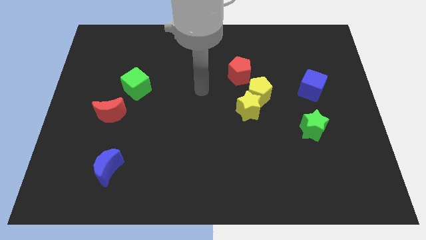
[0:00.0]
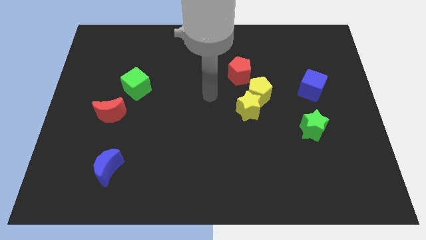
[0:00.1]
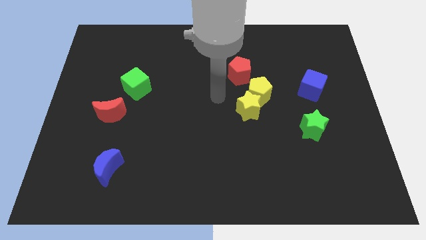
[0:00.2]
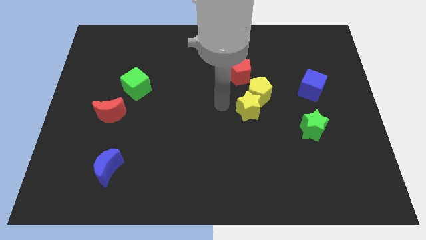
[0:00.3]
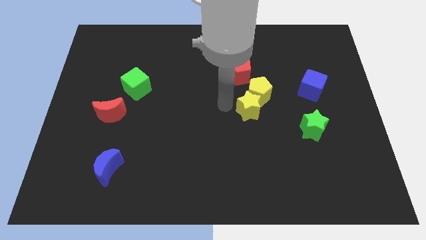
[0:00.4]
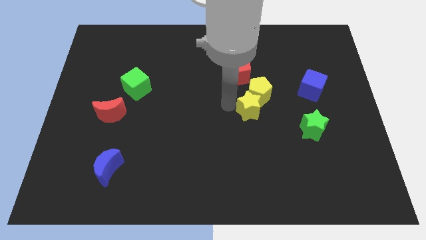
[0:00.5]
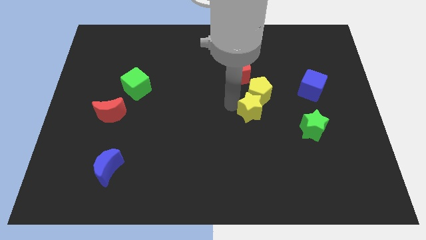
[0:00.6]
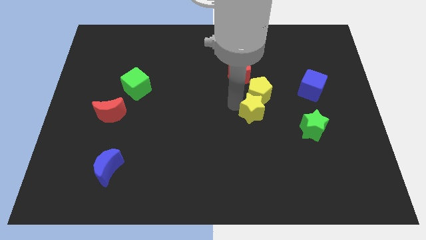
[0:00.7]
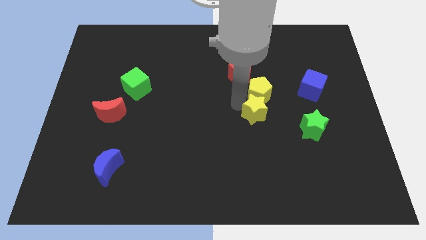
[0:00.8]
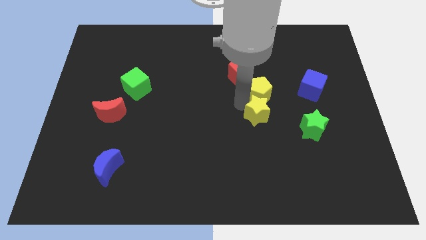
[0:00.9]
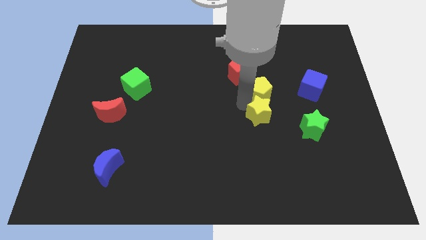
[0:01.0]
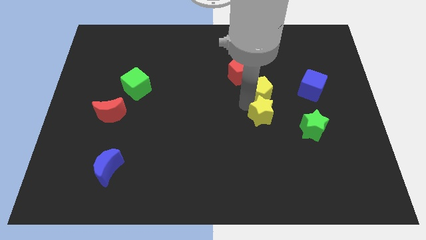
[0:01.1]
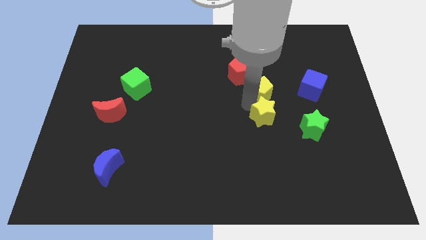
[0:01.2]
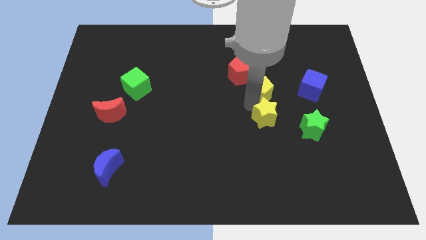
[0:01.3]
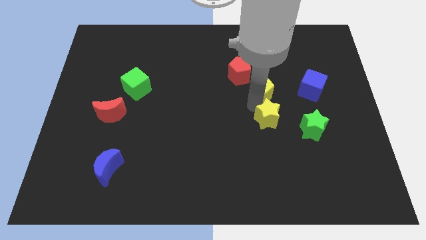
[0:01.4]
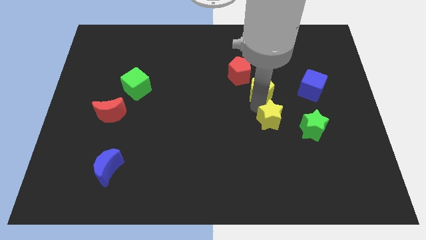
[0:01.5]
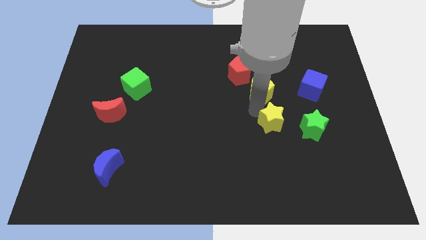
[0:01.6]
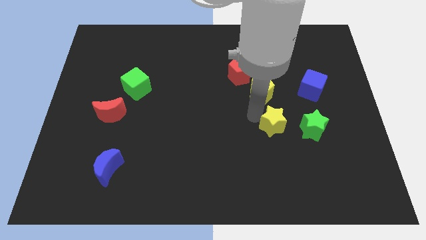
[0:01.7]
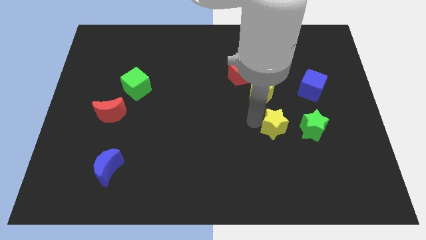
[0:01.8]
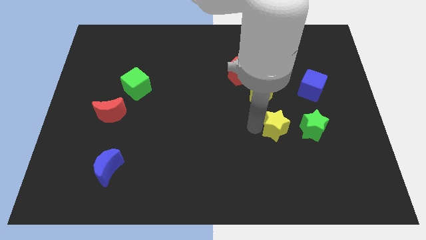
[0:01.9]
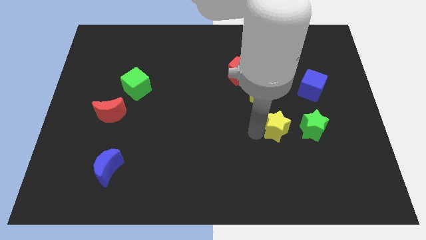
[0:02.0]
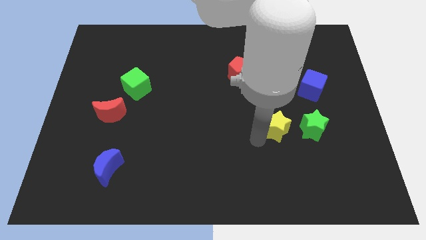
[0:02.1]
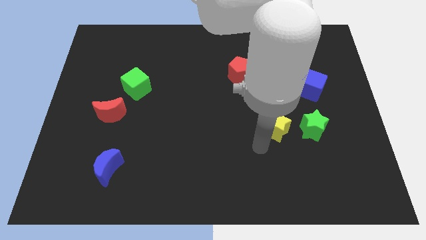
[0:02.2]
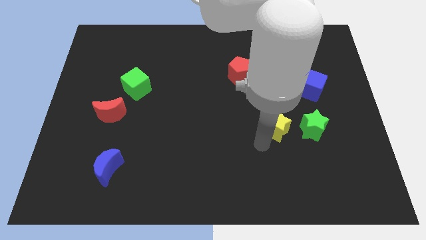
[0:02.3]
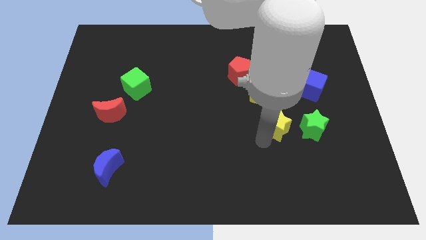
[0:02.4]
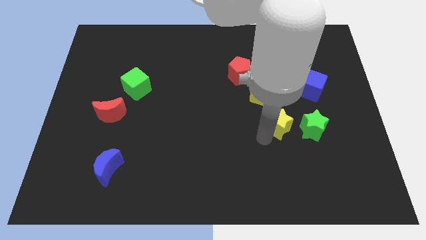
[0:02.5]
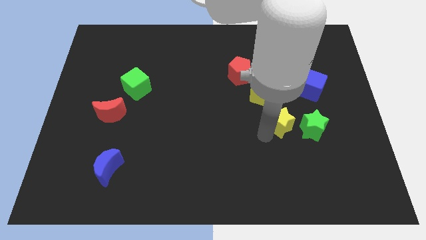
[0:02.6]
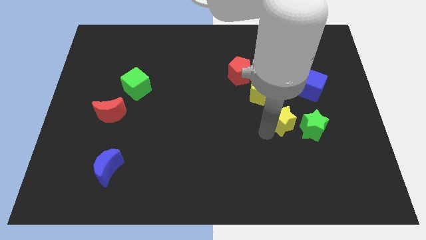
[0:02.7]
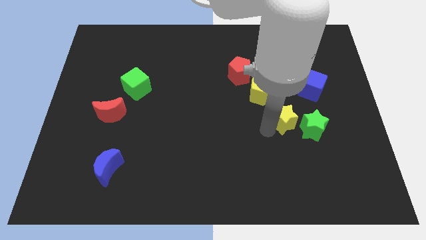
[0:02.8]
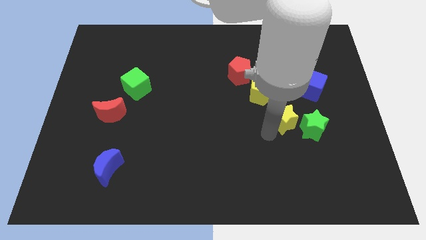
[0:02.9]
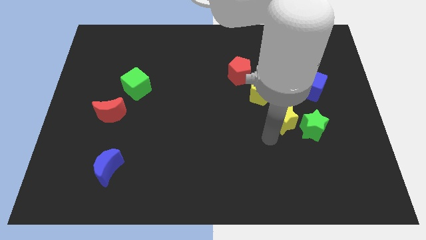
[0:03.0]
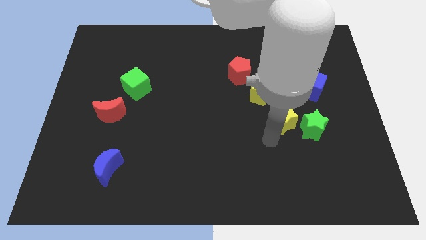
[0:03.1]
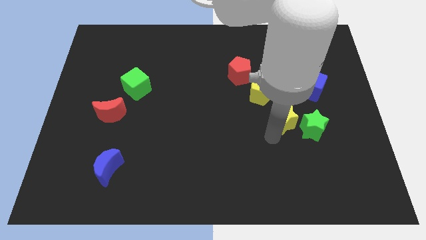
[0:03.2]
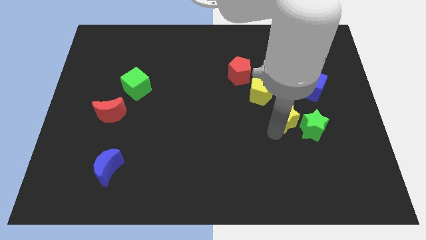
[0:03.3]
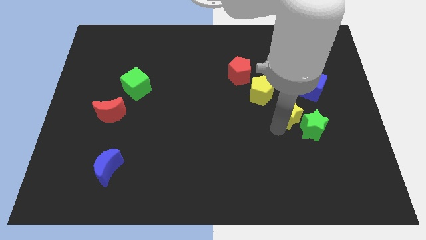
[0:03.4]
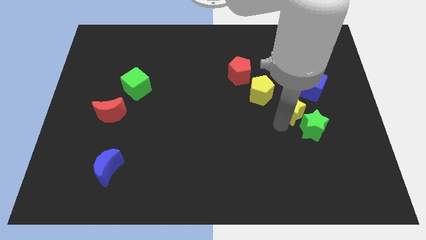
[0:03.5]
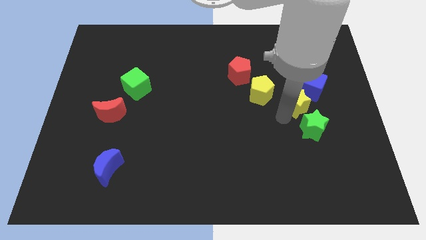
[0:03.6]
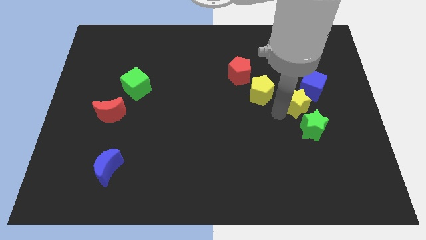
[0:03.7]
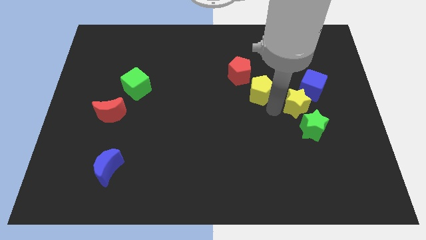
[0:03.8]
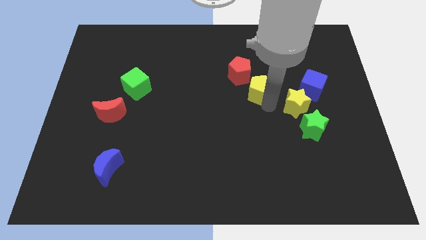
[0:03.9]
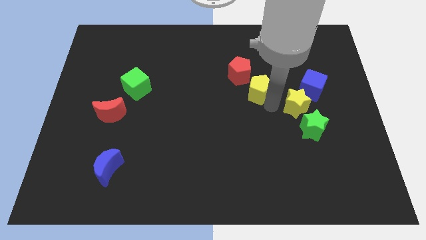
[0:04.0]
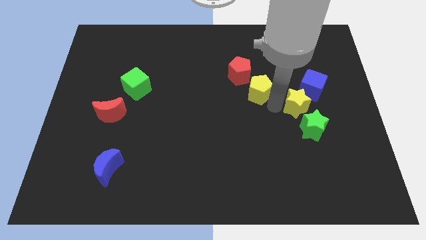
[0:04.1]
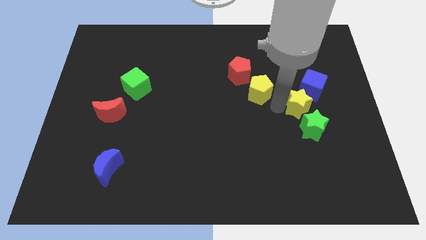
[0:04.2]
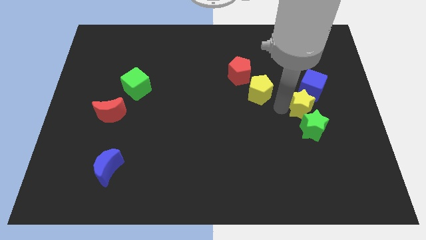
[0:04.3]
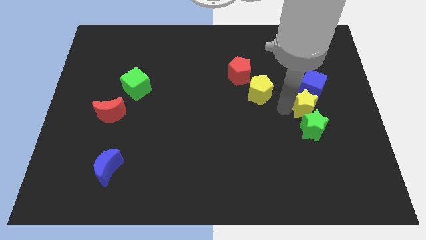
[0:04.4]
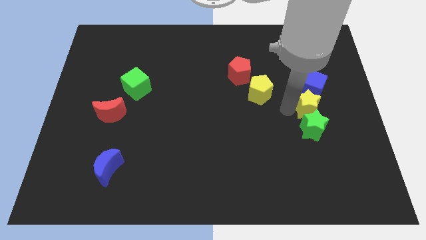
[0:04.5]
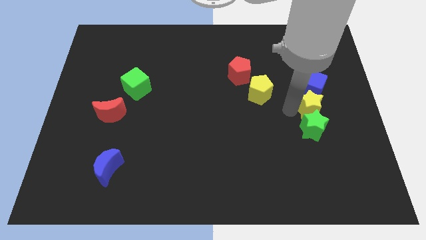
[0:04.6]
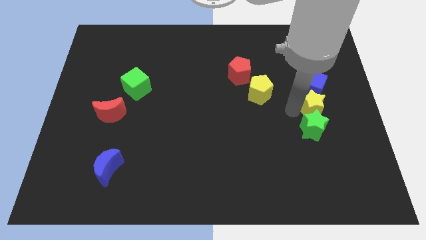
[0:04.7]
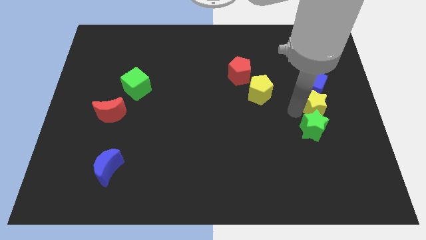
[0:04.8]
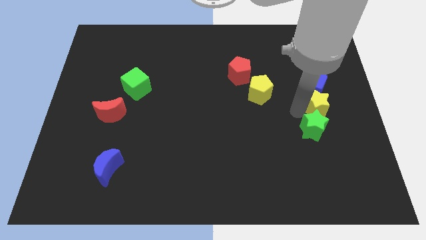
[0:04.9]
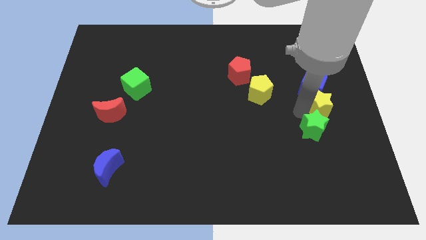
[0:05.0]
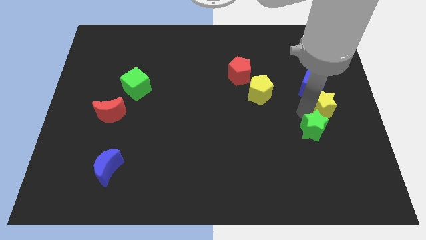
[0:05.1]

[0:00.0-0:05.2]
move the yellow star to the center right

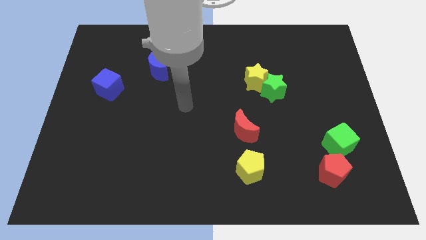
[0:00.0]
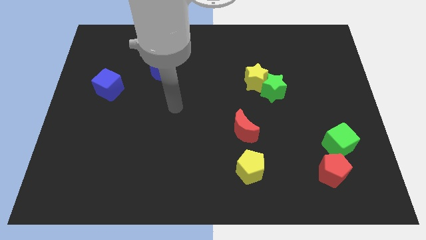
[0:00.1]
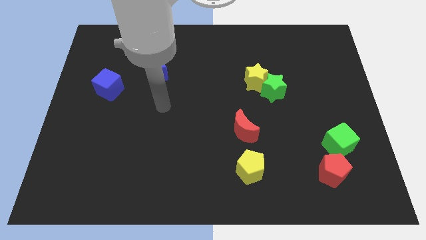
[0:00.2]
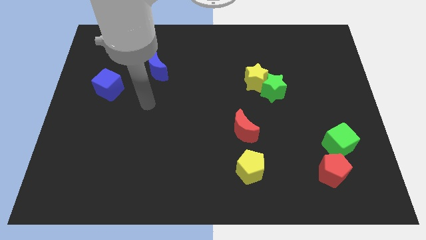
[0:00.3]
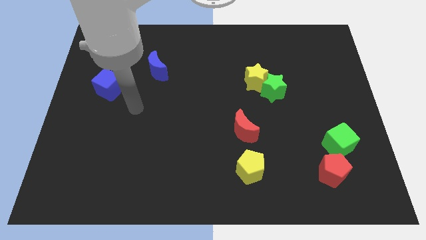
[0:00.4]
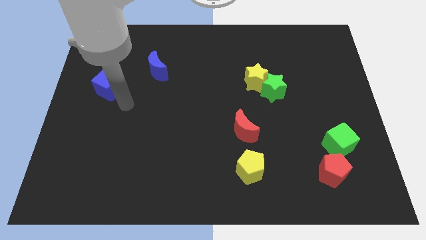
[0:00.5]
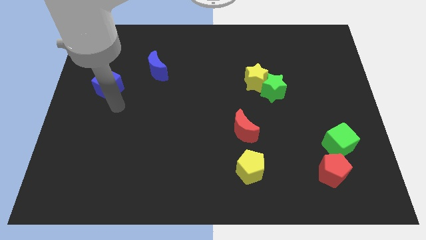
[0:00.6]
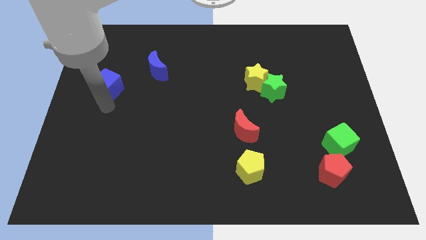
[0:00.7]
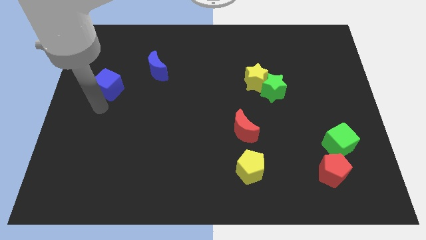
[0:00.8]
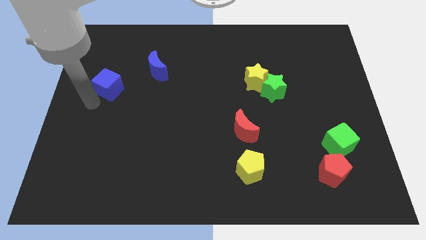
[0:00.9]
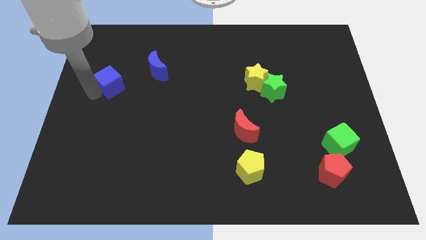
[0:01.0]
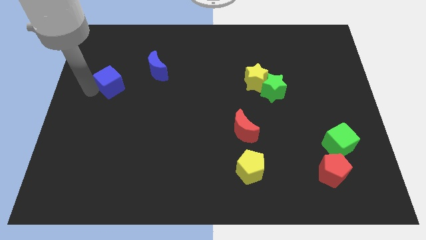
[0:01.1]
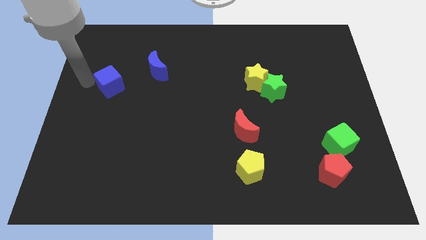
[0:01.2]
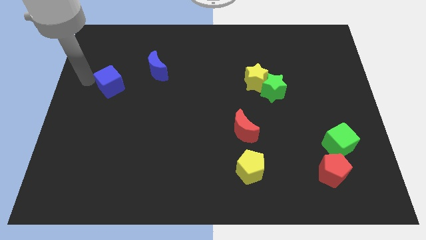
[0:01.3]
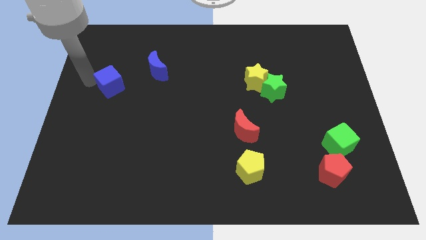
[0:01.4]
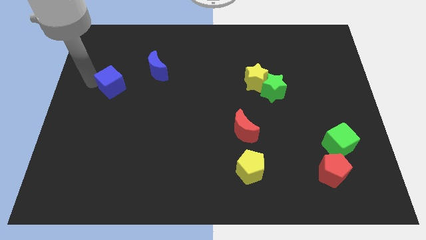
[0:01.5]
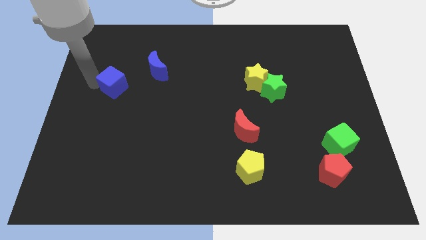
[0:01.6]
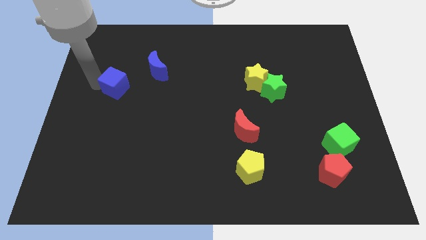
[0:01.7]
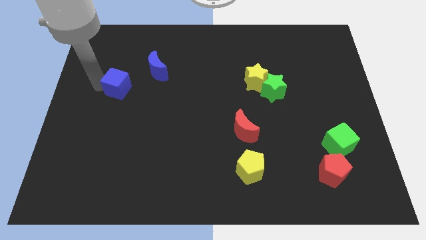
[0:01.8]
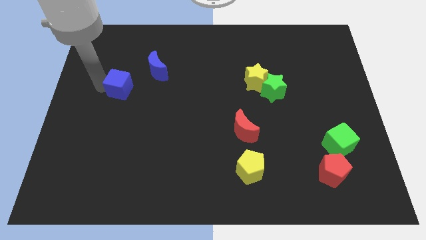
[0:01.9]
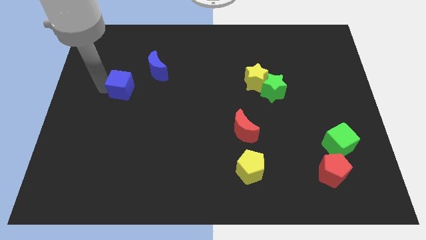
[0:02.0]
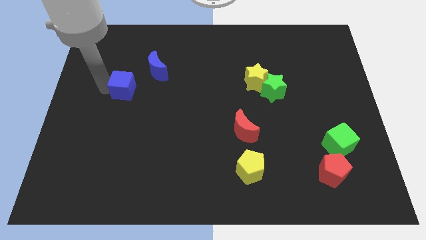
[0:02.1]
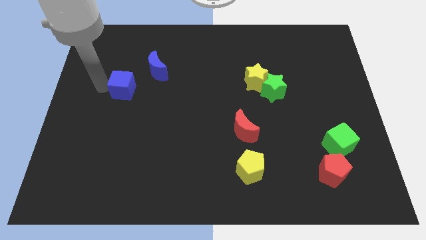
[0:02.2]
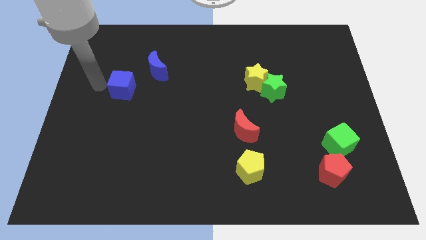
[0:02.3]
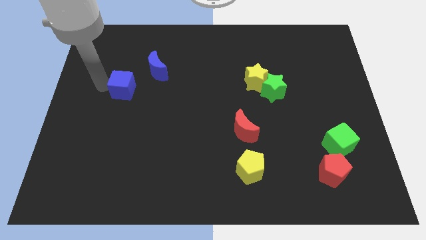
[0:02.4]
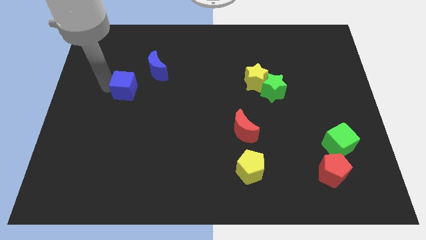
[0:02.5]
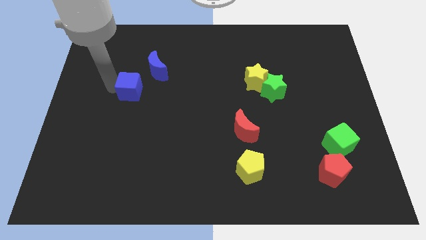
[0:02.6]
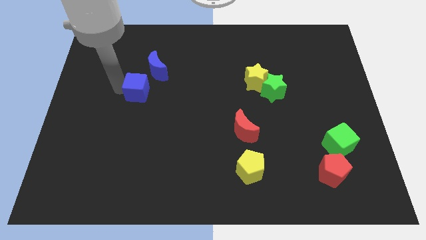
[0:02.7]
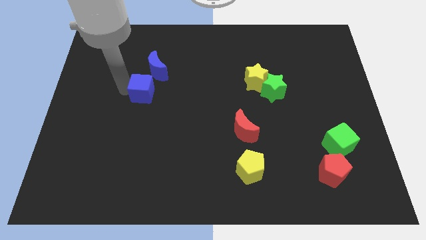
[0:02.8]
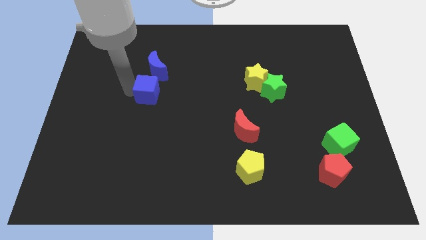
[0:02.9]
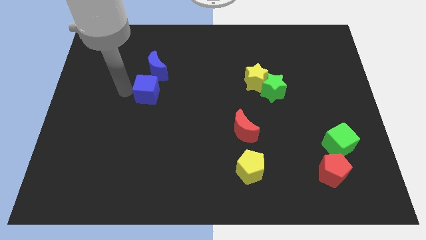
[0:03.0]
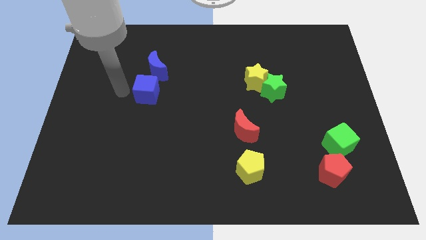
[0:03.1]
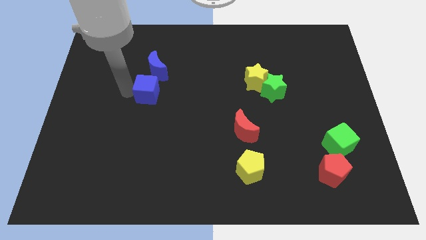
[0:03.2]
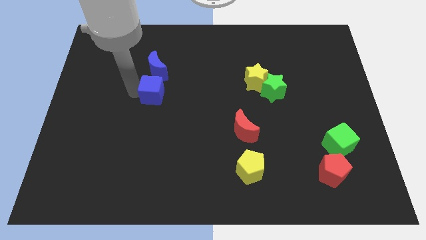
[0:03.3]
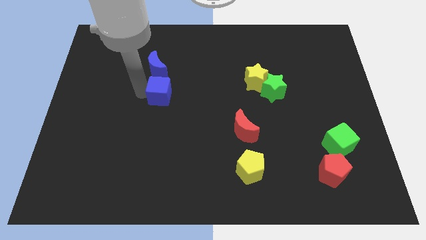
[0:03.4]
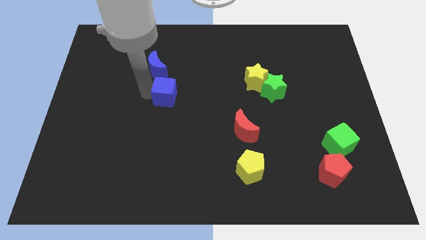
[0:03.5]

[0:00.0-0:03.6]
push the blue cube to the center
